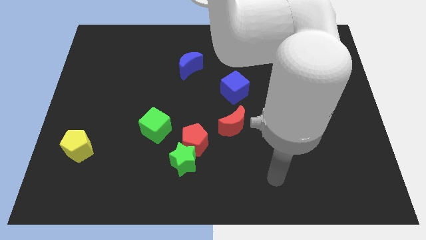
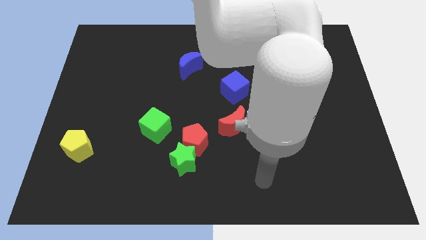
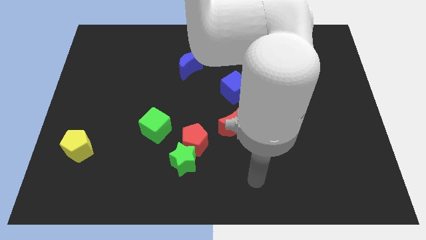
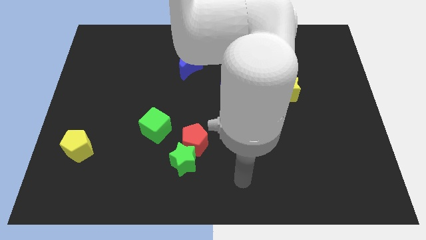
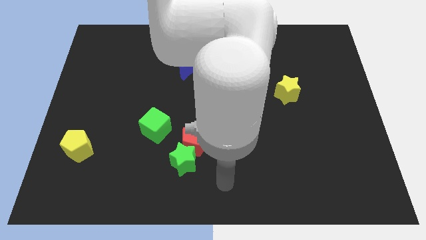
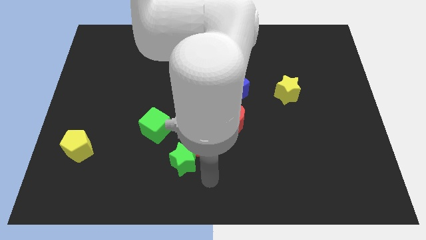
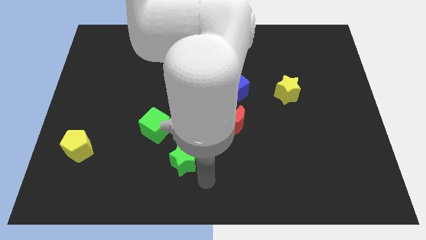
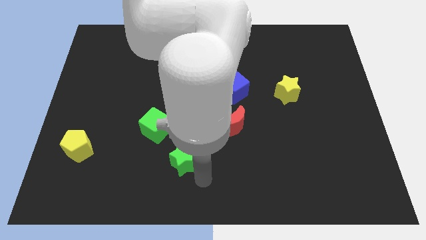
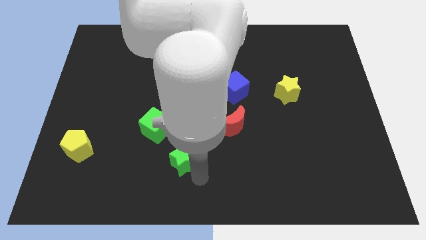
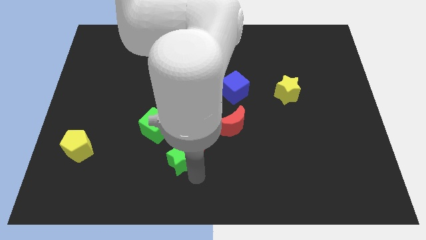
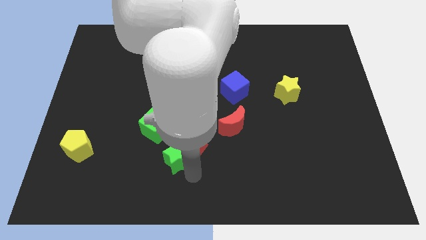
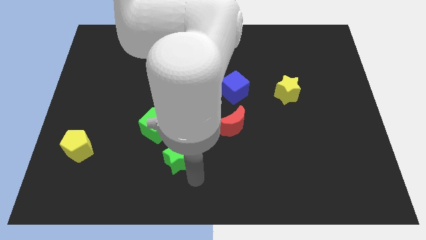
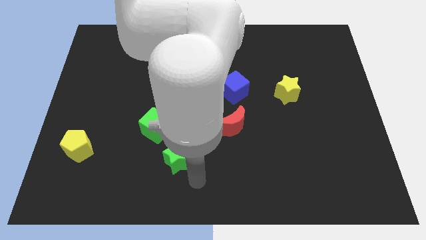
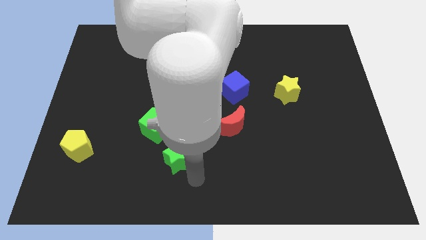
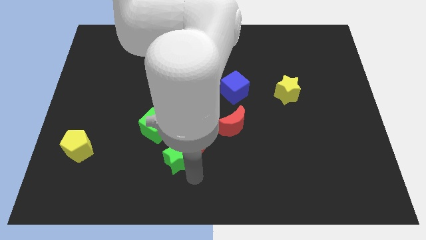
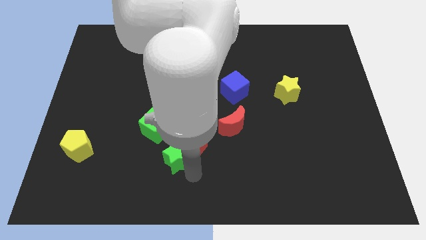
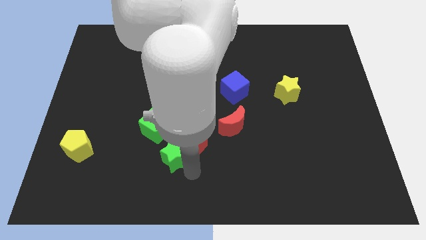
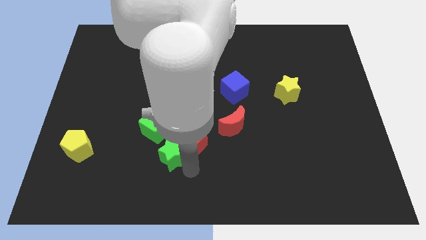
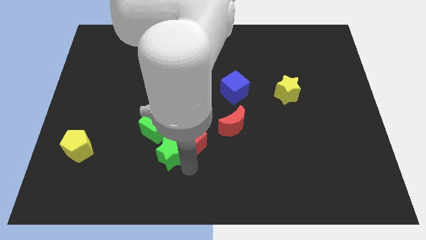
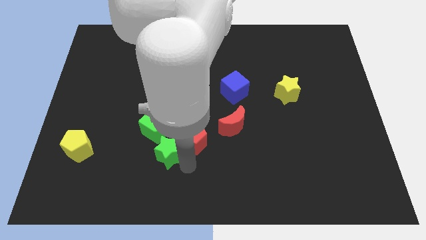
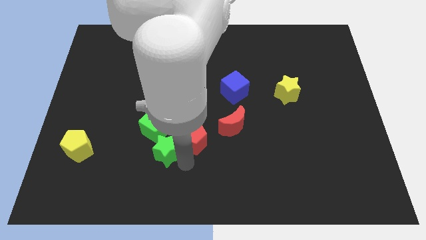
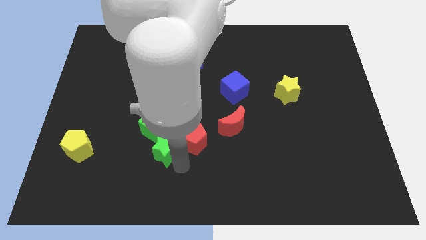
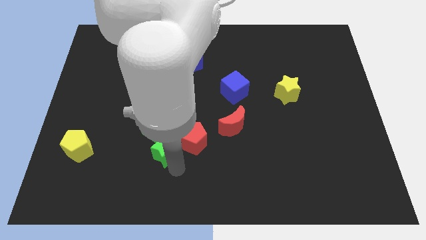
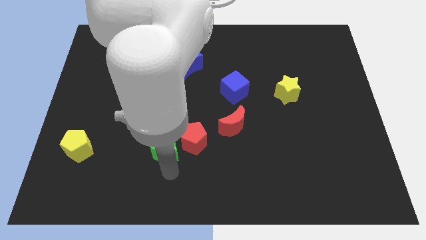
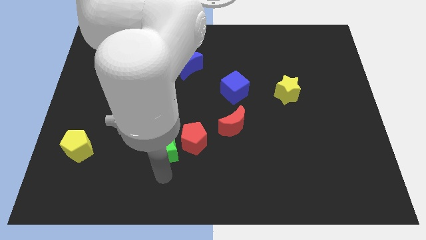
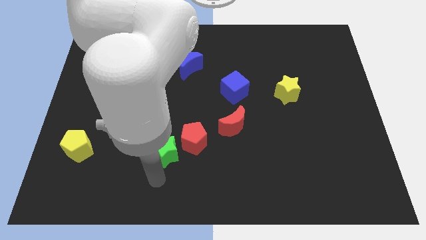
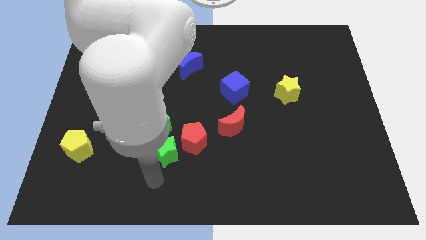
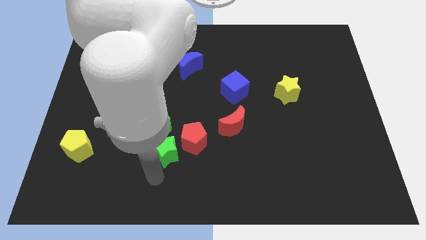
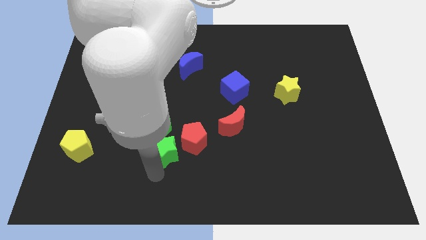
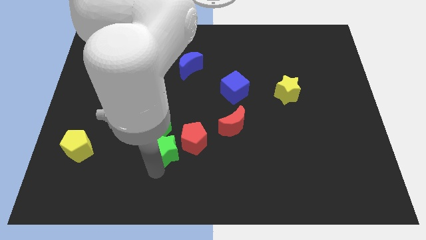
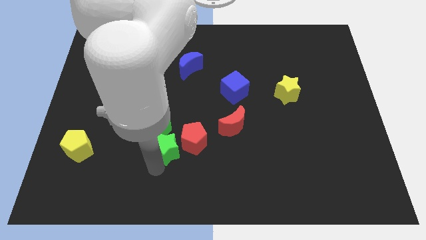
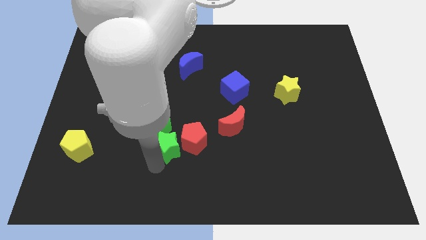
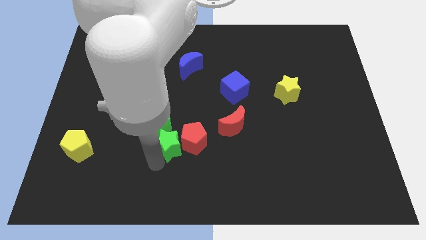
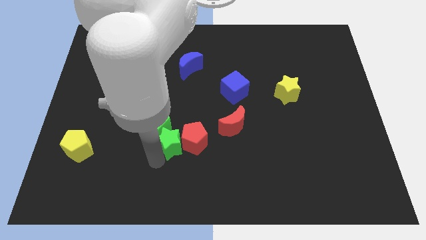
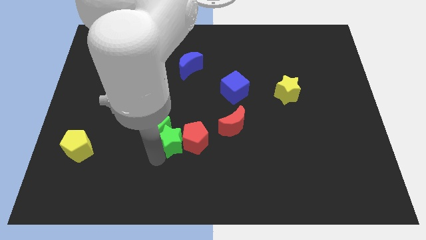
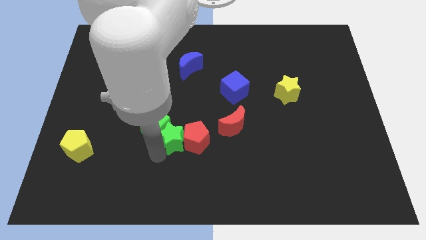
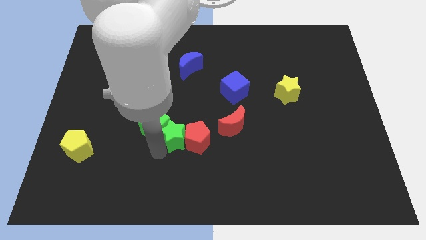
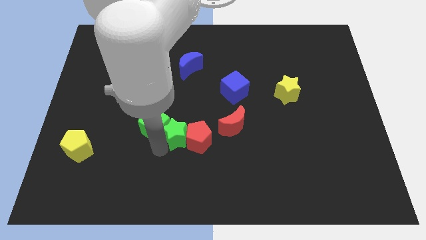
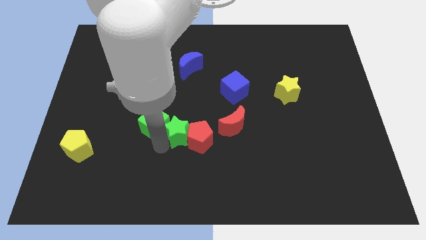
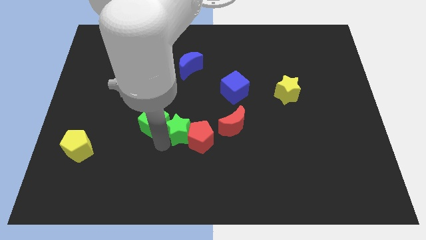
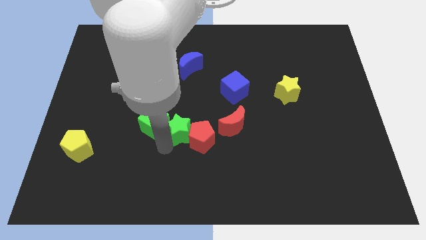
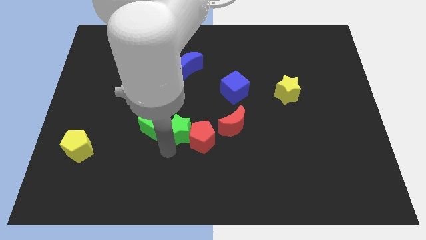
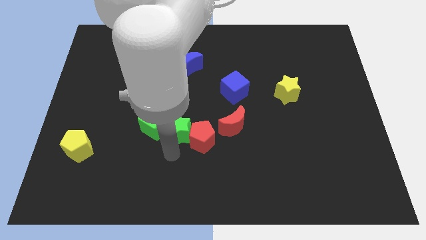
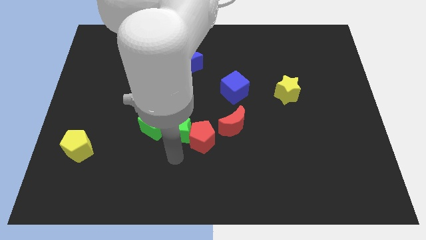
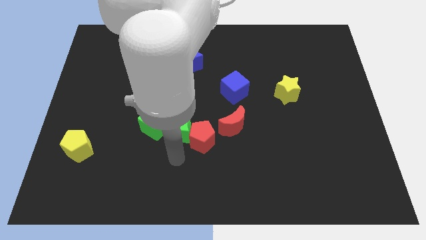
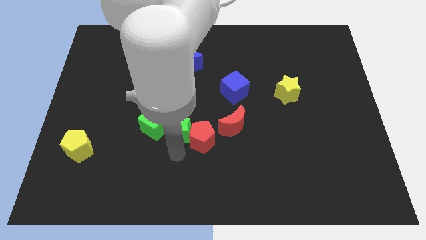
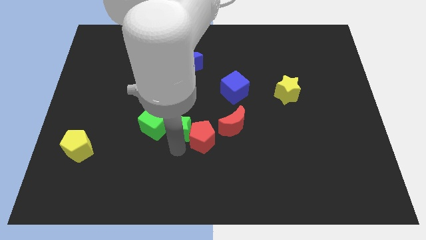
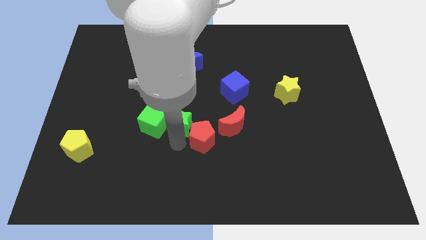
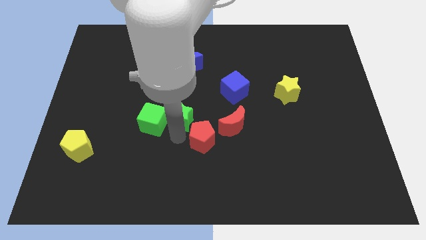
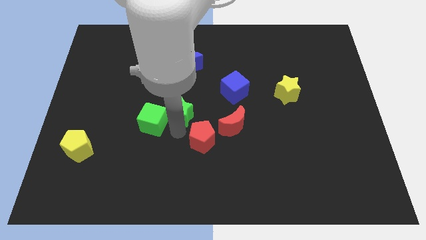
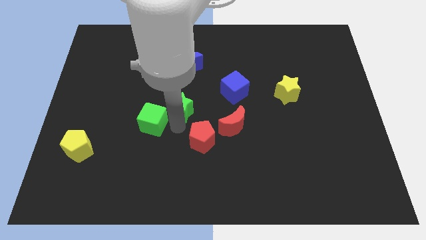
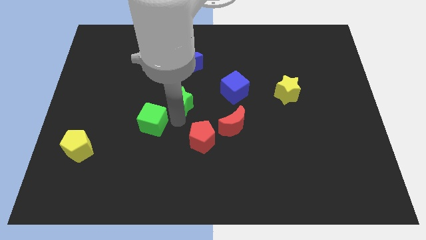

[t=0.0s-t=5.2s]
slide the green star left of the blue cube

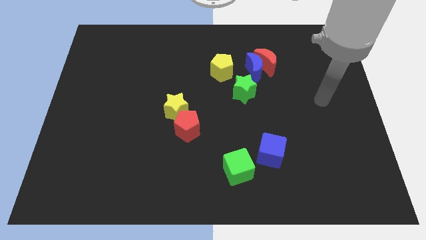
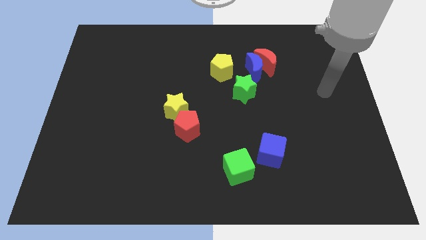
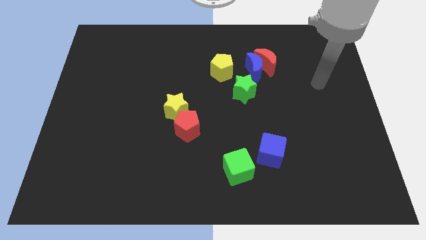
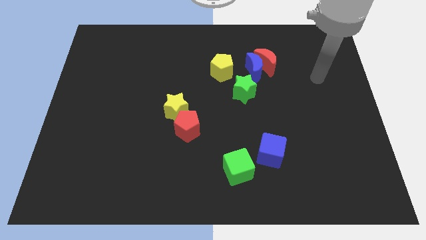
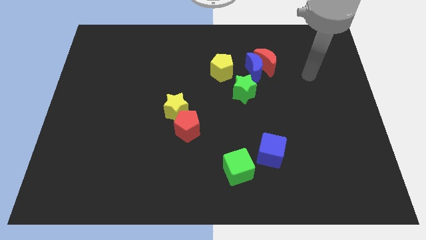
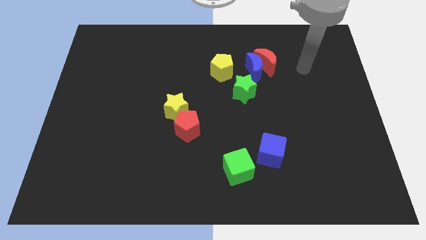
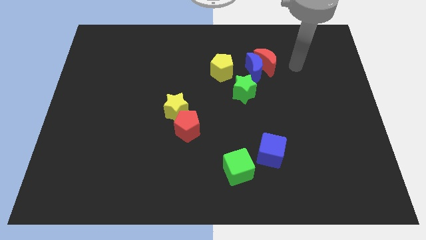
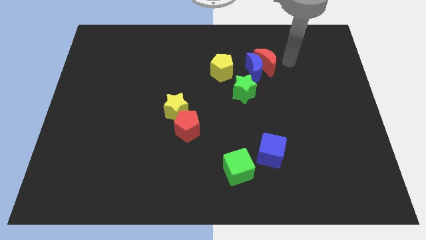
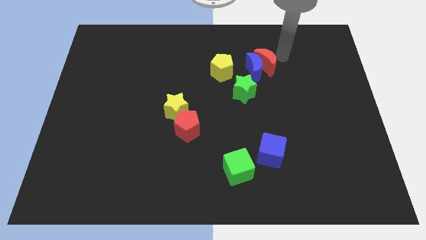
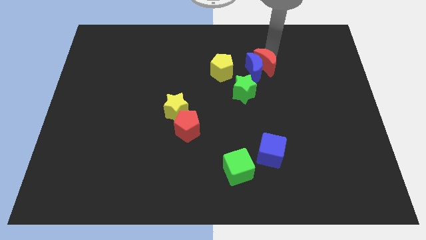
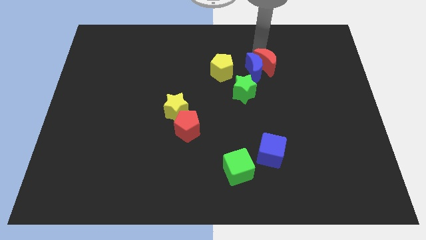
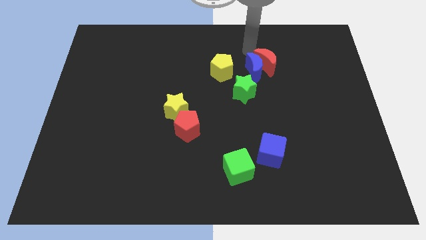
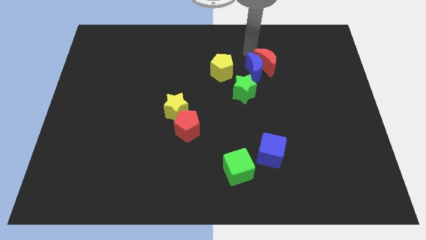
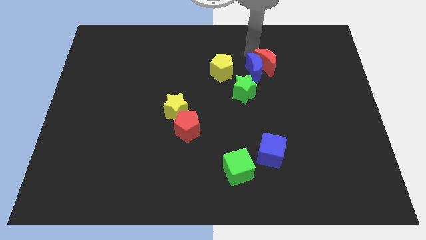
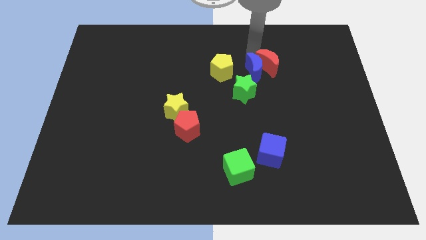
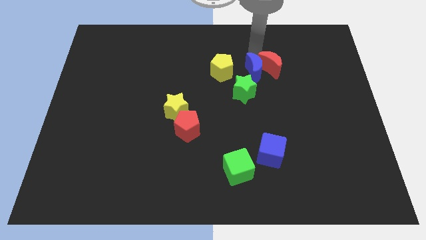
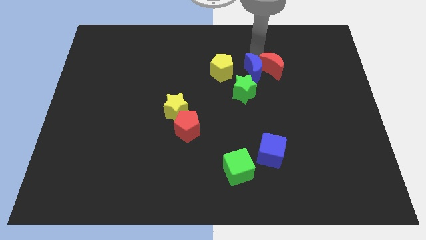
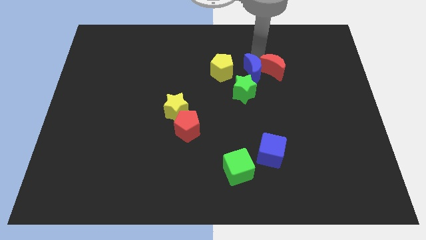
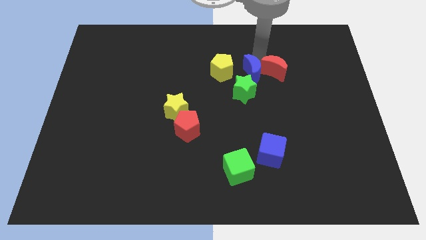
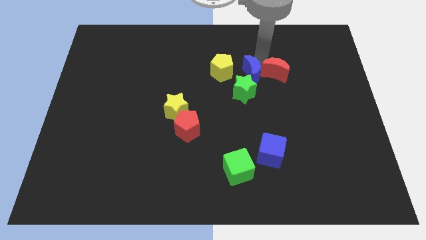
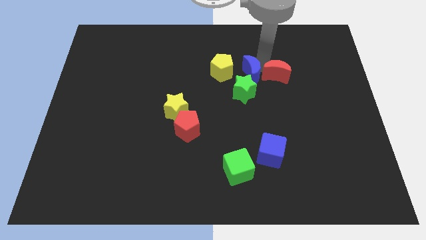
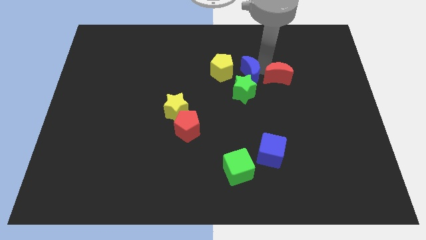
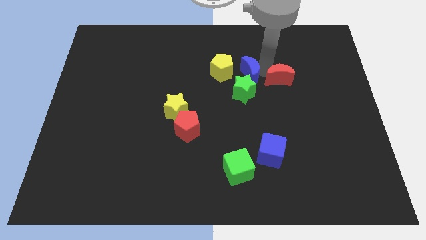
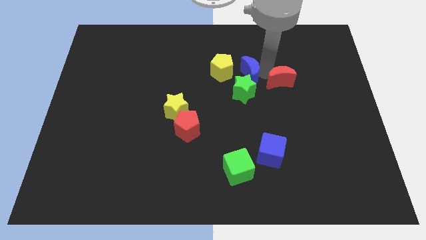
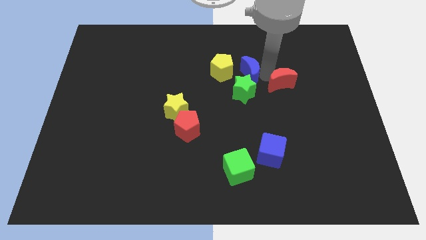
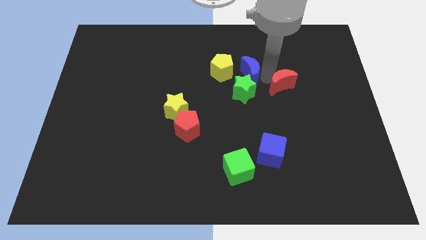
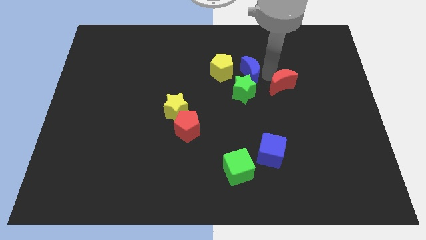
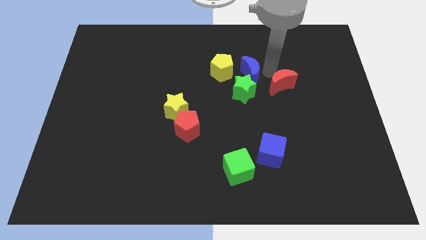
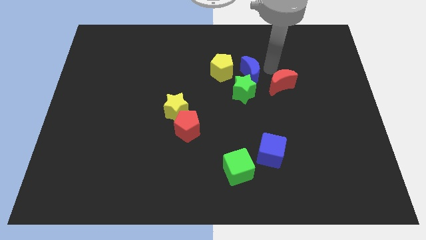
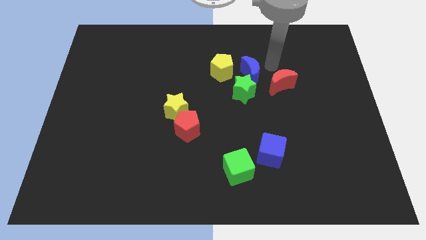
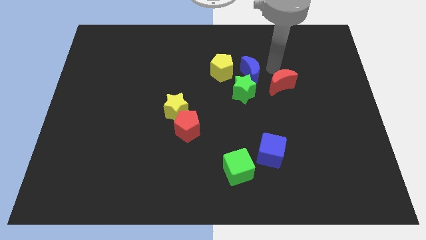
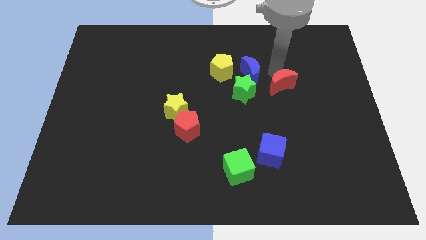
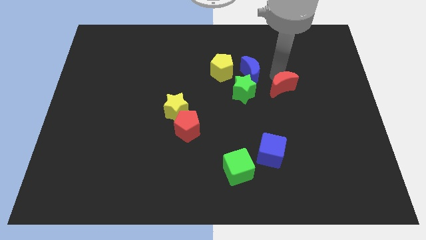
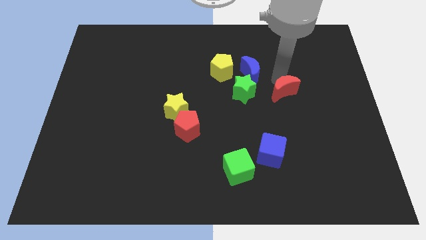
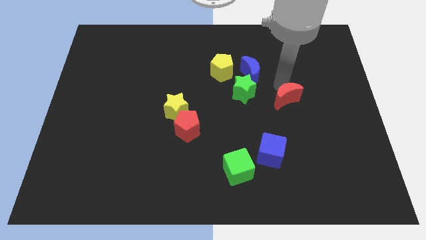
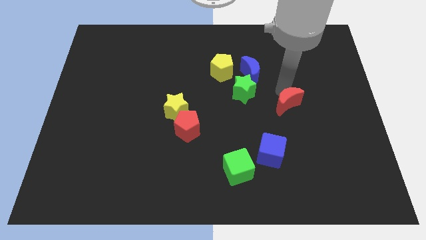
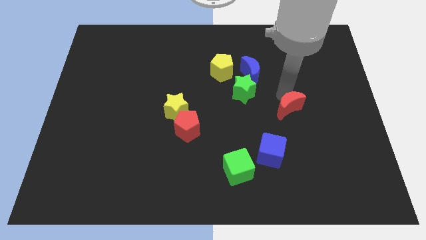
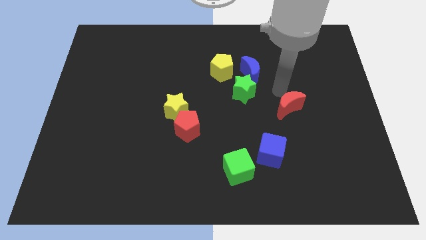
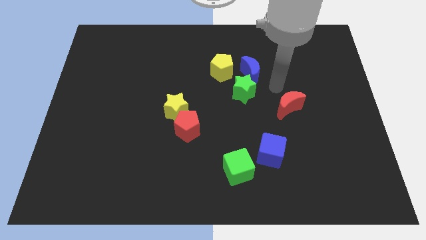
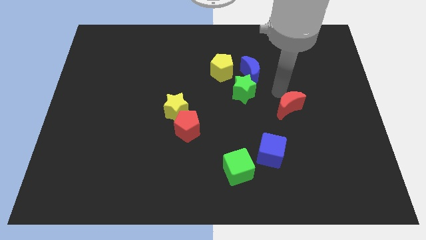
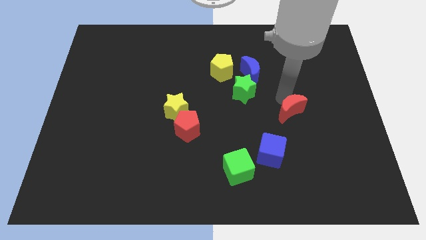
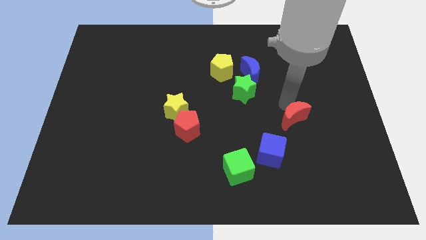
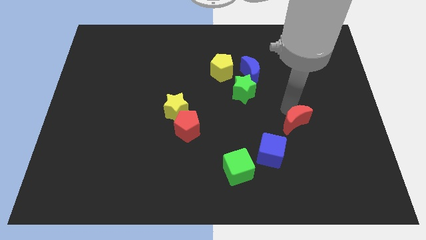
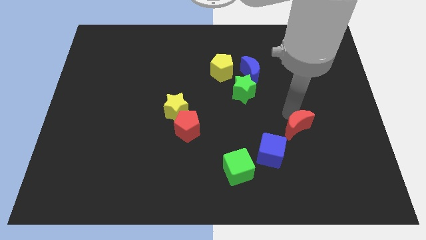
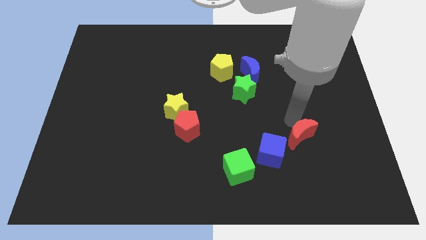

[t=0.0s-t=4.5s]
put the red moon to the right of the blue cube
